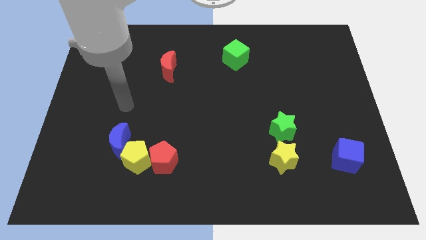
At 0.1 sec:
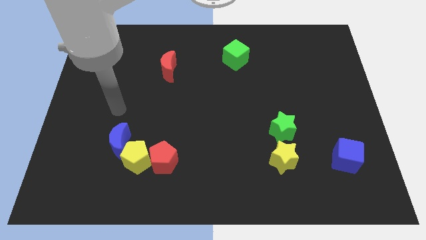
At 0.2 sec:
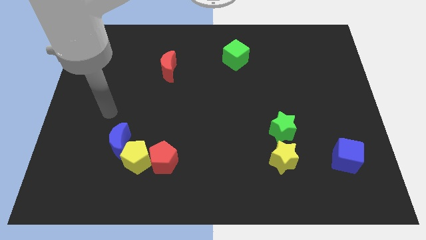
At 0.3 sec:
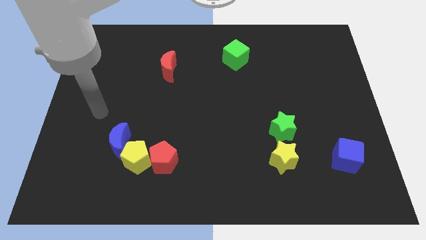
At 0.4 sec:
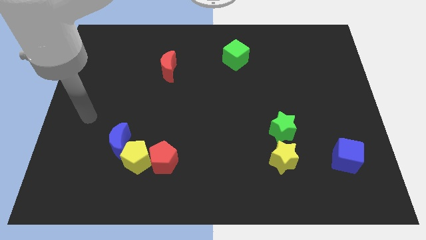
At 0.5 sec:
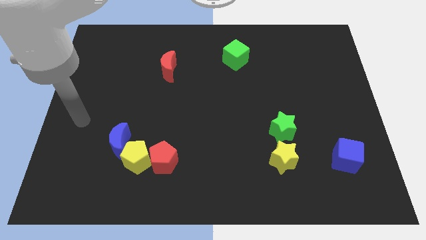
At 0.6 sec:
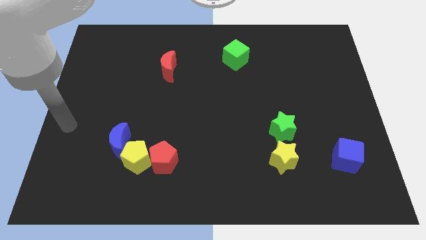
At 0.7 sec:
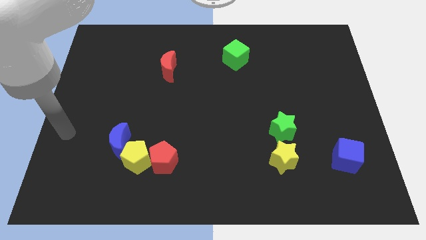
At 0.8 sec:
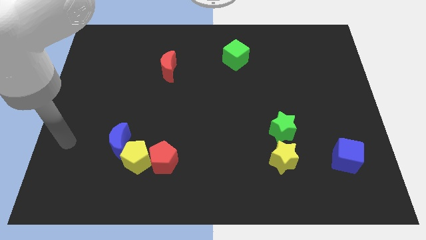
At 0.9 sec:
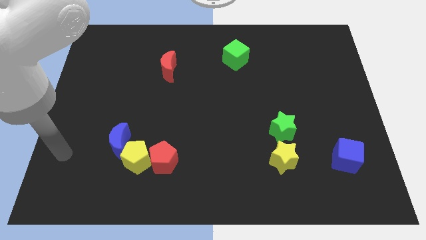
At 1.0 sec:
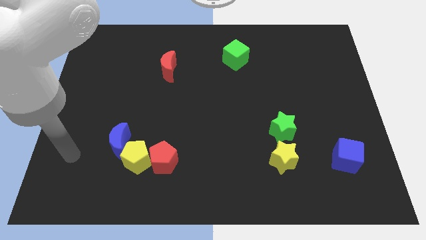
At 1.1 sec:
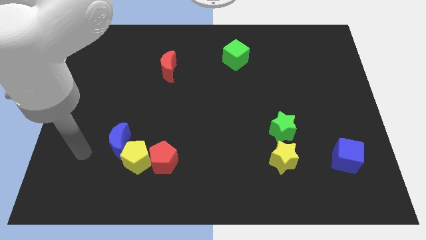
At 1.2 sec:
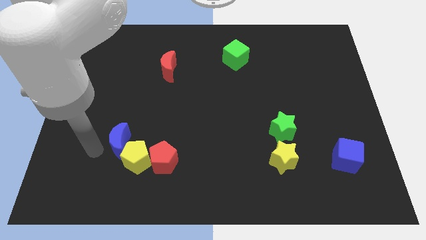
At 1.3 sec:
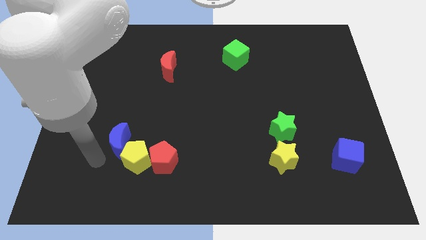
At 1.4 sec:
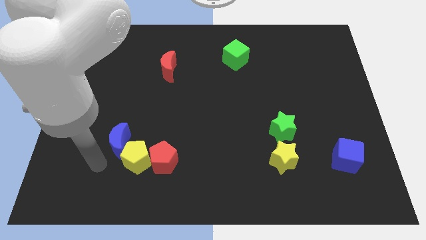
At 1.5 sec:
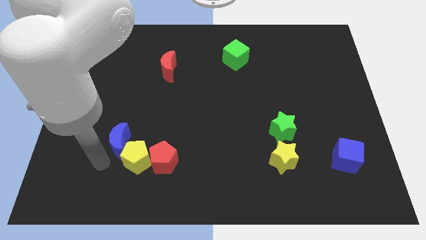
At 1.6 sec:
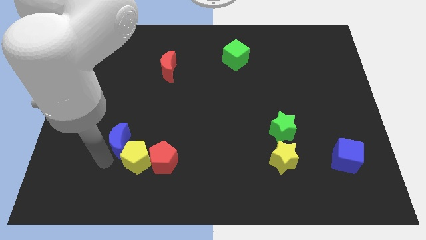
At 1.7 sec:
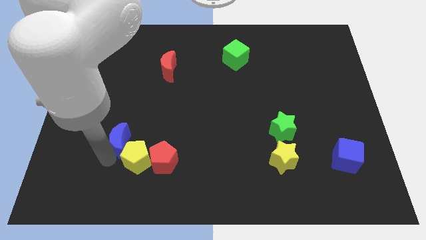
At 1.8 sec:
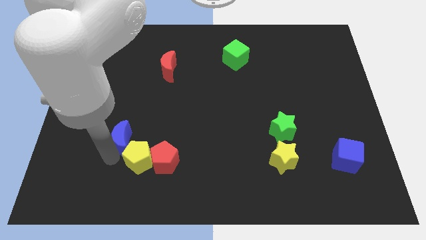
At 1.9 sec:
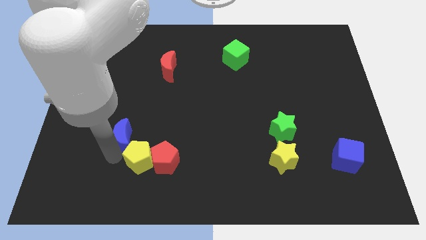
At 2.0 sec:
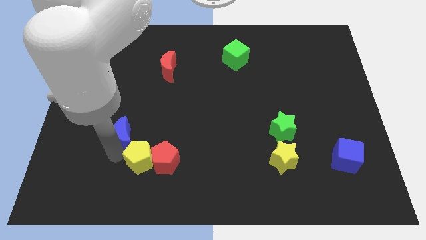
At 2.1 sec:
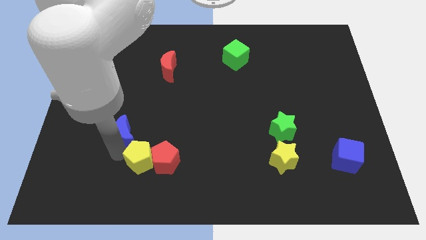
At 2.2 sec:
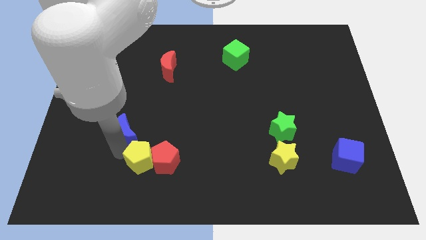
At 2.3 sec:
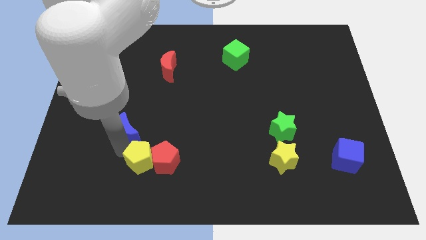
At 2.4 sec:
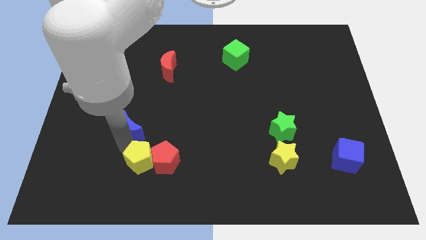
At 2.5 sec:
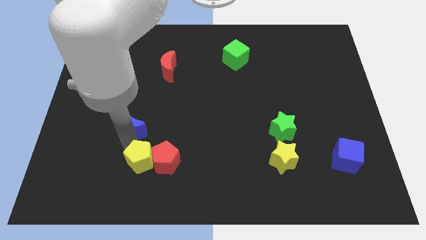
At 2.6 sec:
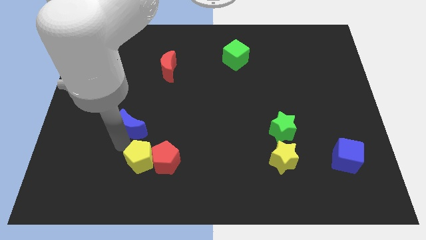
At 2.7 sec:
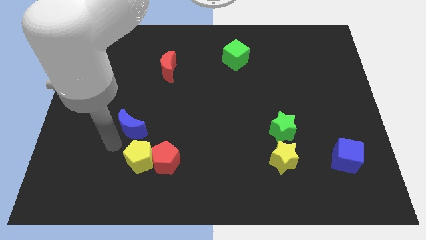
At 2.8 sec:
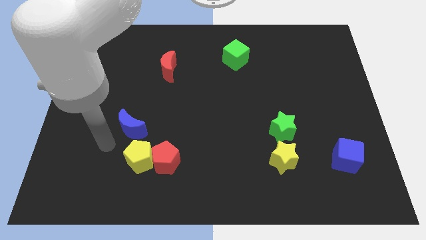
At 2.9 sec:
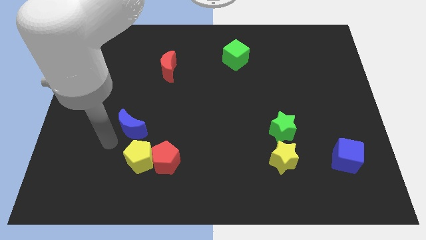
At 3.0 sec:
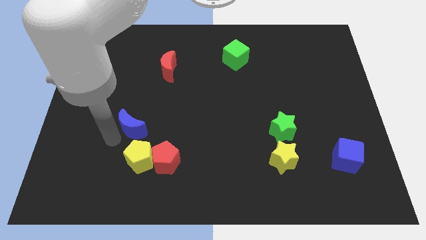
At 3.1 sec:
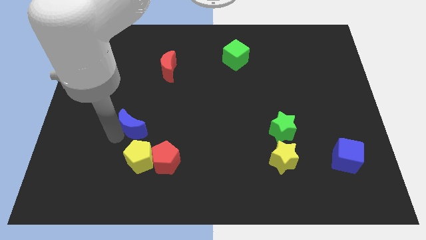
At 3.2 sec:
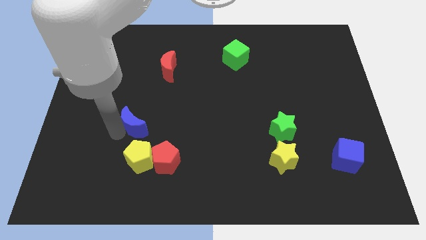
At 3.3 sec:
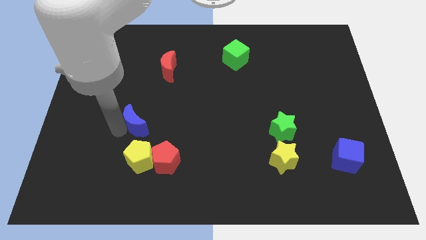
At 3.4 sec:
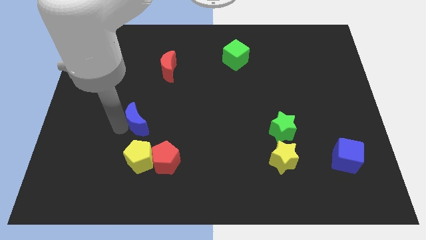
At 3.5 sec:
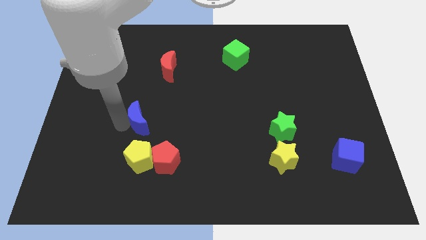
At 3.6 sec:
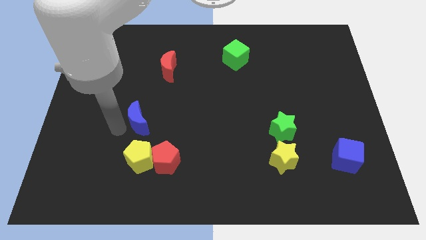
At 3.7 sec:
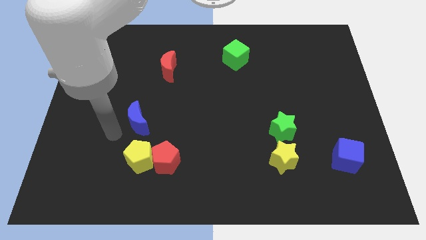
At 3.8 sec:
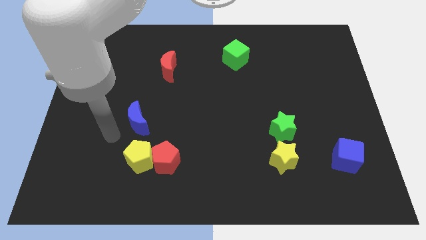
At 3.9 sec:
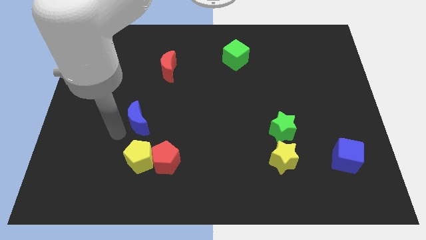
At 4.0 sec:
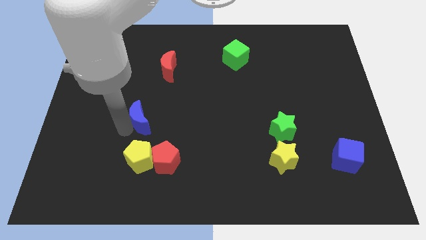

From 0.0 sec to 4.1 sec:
slightly slide the blue moon upwards and right

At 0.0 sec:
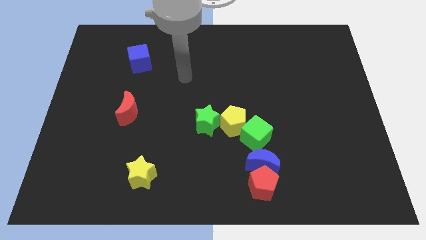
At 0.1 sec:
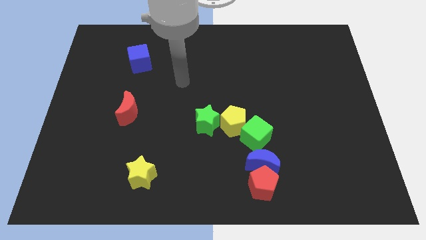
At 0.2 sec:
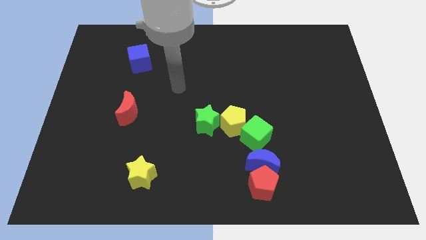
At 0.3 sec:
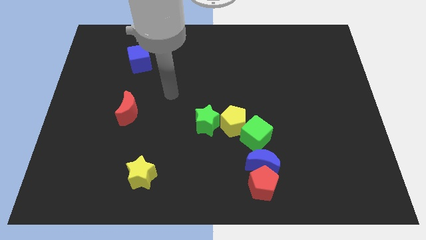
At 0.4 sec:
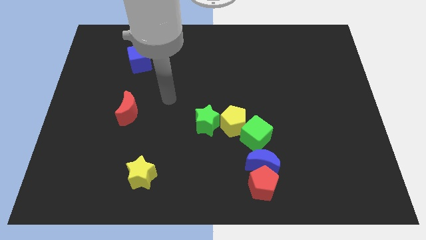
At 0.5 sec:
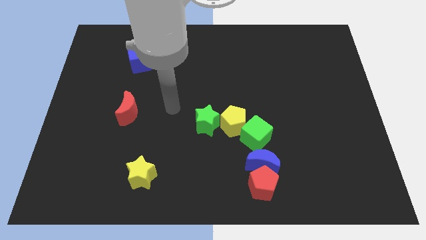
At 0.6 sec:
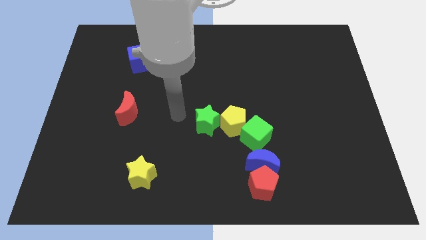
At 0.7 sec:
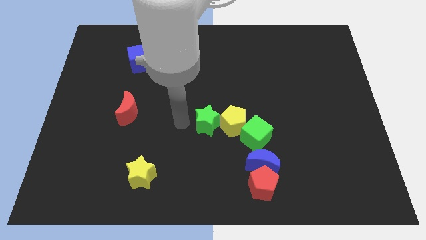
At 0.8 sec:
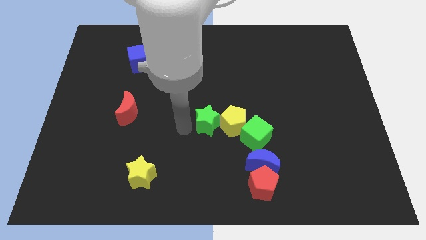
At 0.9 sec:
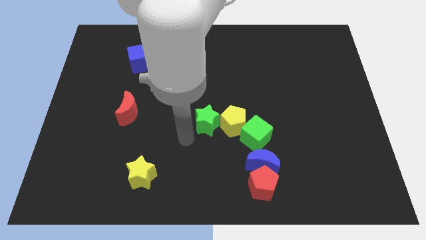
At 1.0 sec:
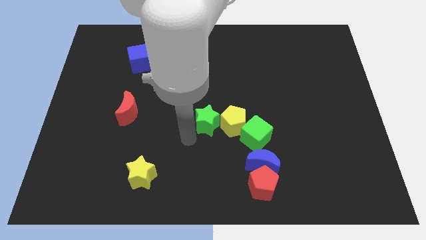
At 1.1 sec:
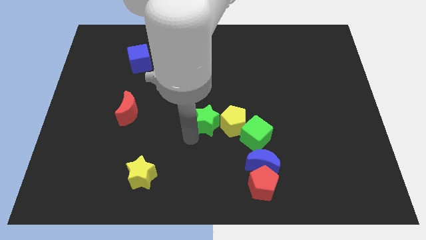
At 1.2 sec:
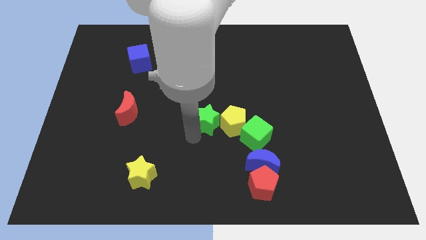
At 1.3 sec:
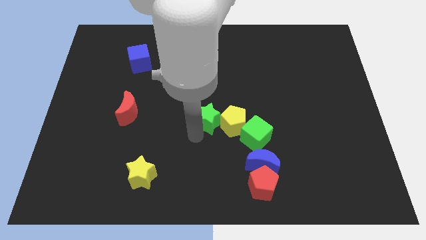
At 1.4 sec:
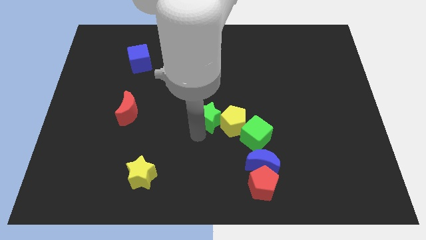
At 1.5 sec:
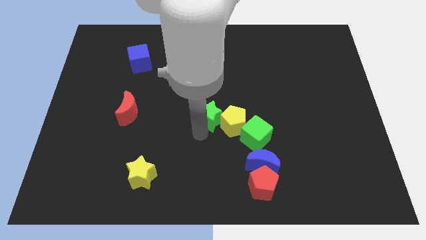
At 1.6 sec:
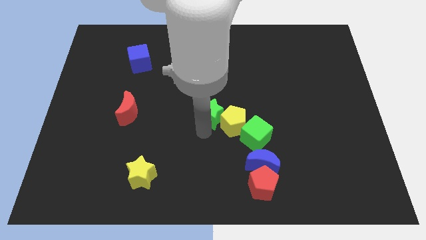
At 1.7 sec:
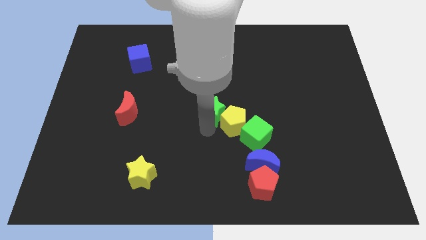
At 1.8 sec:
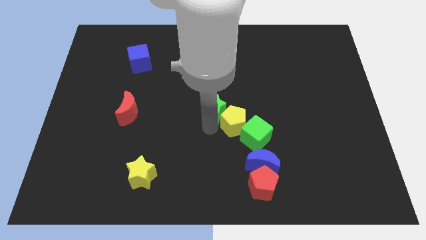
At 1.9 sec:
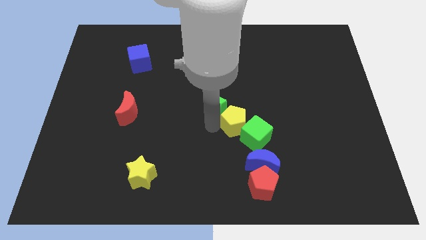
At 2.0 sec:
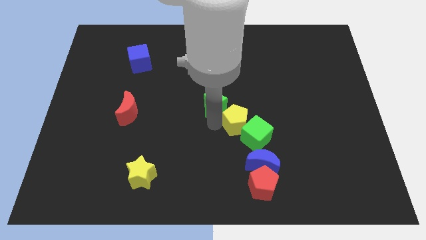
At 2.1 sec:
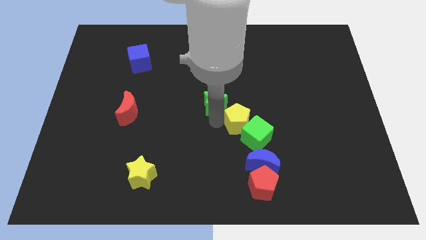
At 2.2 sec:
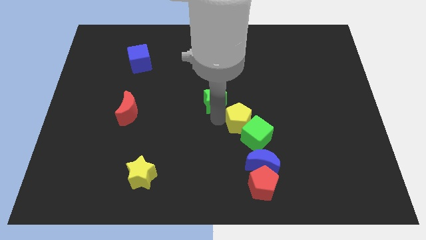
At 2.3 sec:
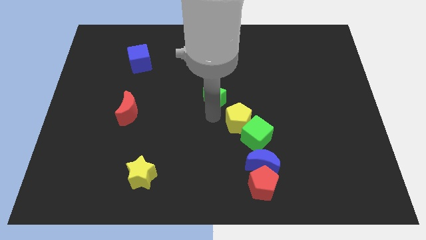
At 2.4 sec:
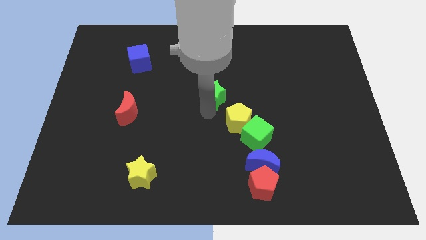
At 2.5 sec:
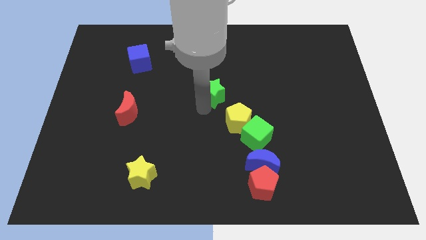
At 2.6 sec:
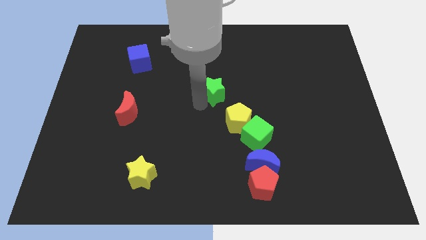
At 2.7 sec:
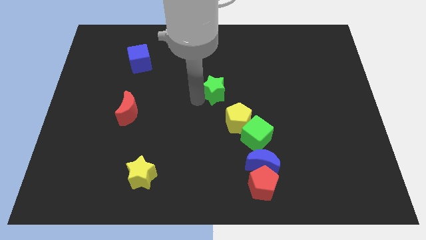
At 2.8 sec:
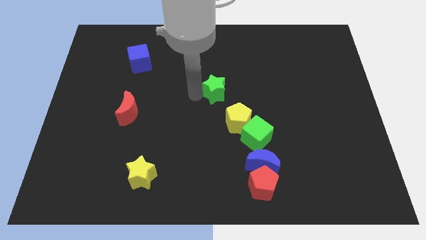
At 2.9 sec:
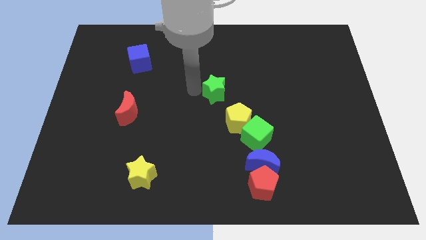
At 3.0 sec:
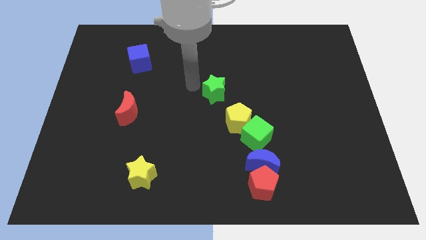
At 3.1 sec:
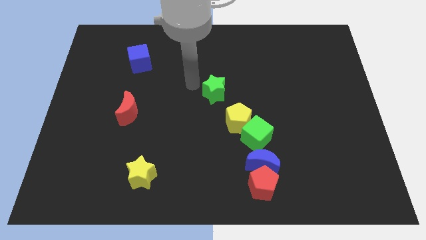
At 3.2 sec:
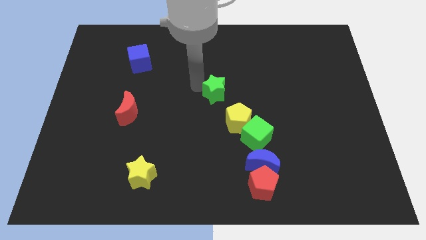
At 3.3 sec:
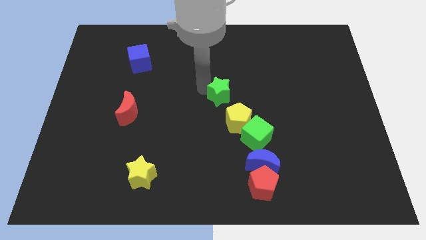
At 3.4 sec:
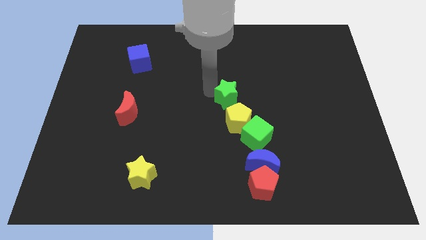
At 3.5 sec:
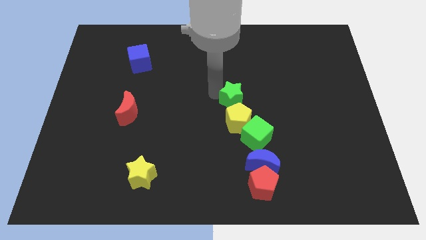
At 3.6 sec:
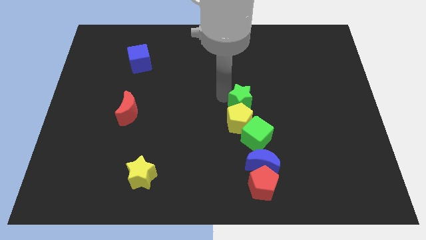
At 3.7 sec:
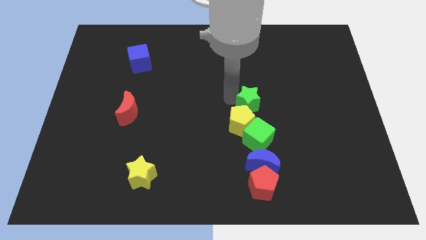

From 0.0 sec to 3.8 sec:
push the green star somewhat right

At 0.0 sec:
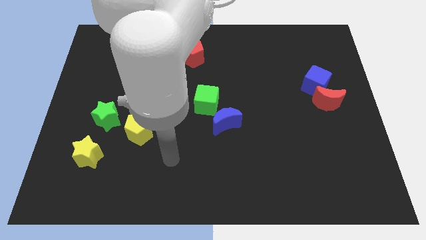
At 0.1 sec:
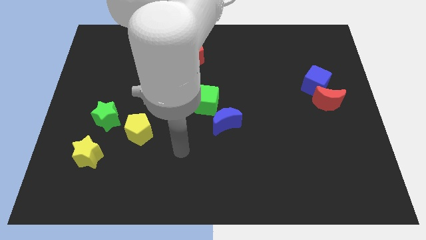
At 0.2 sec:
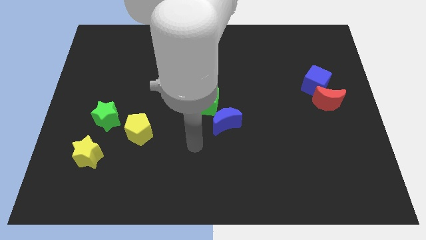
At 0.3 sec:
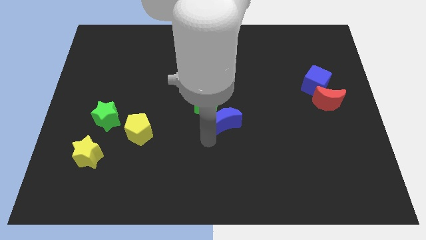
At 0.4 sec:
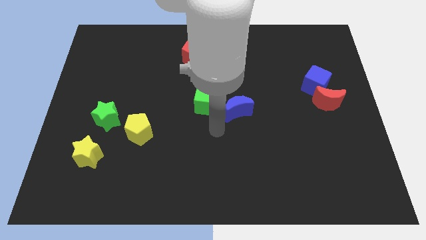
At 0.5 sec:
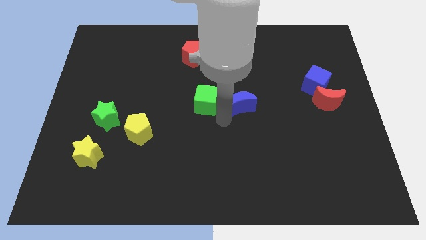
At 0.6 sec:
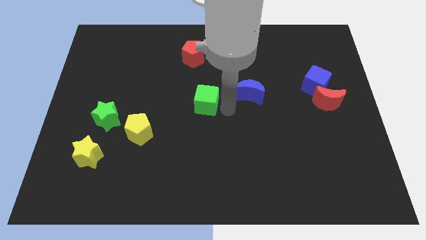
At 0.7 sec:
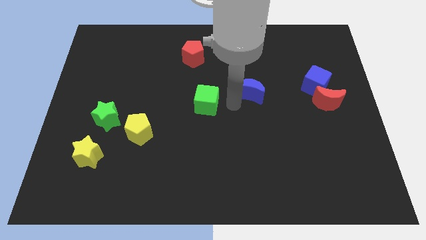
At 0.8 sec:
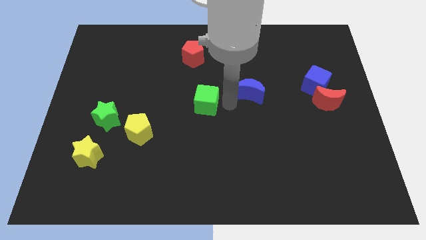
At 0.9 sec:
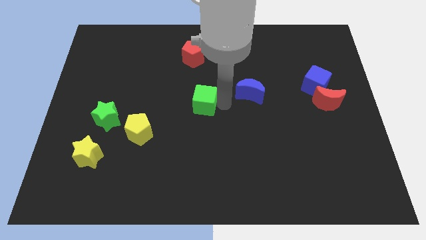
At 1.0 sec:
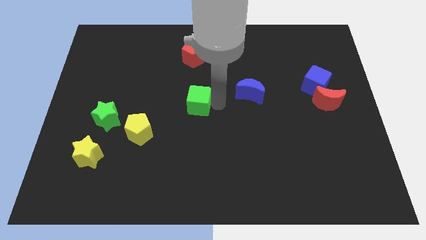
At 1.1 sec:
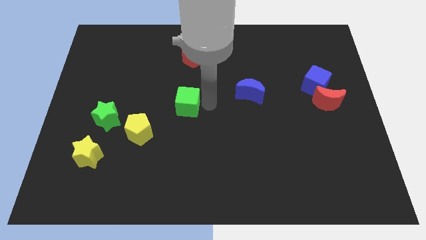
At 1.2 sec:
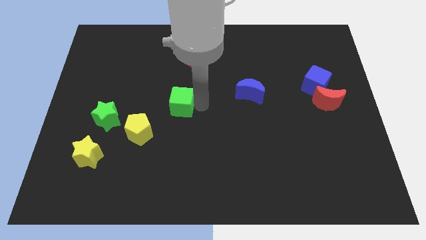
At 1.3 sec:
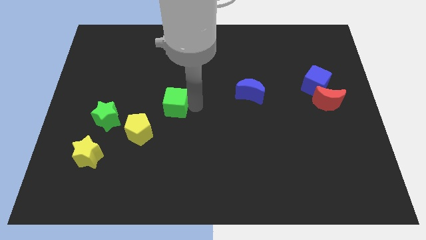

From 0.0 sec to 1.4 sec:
slide the green cube a little bit to the left
